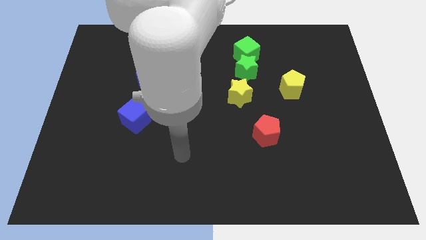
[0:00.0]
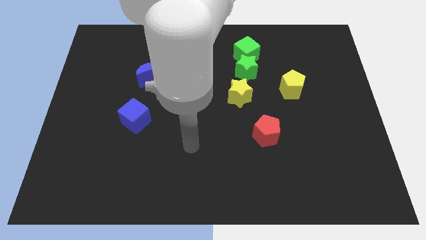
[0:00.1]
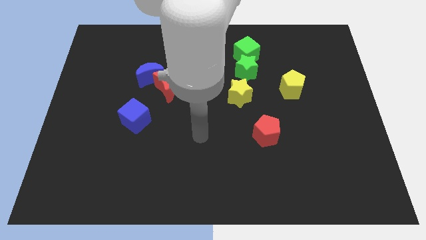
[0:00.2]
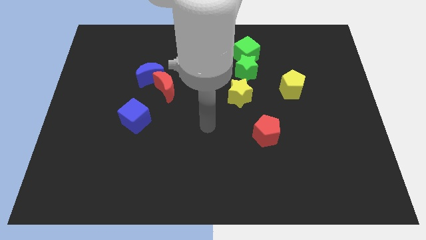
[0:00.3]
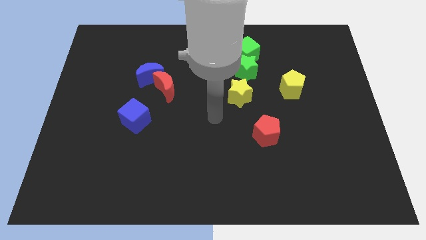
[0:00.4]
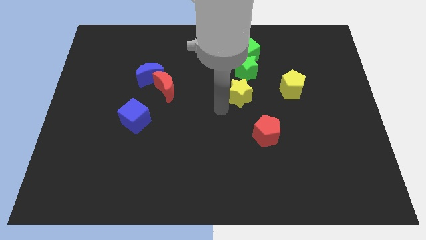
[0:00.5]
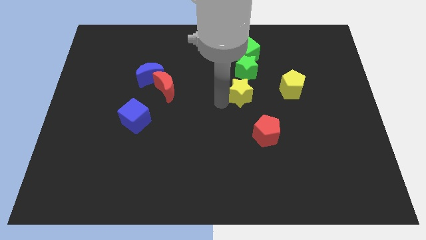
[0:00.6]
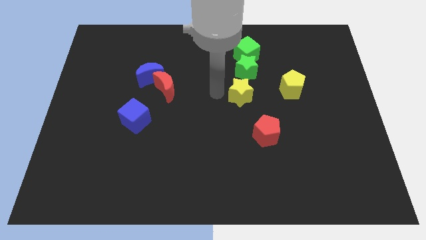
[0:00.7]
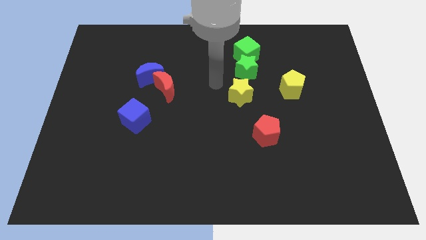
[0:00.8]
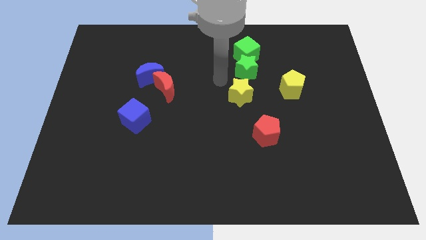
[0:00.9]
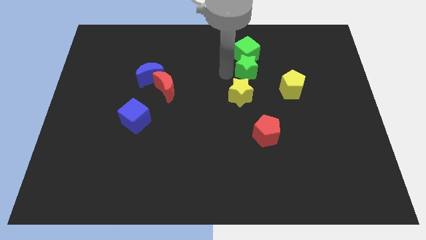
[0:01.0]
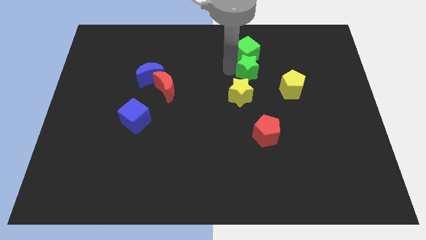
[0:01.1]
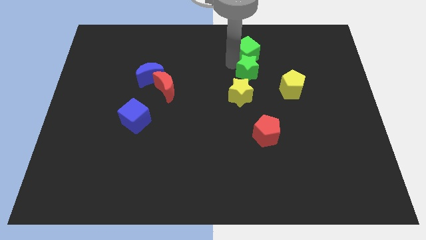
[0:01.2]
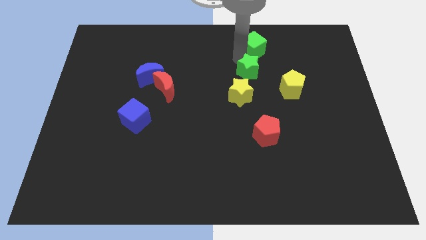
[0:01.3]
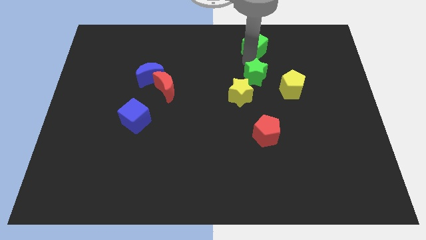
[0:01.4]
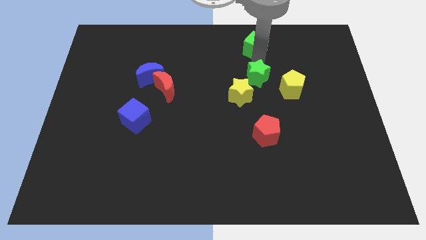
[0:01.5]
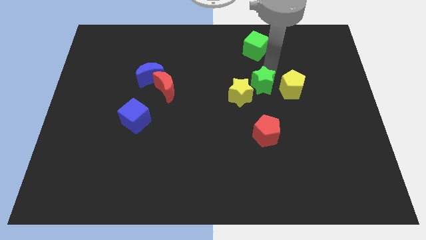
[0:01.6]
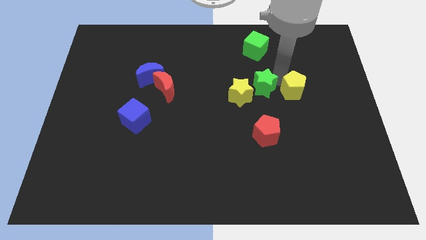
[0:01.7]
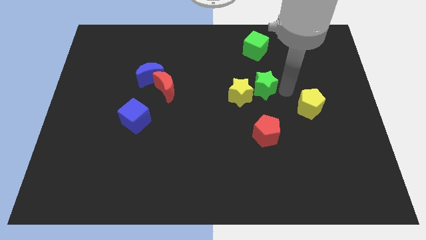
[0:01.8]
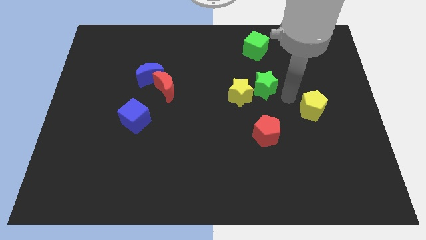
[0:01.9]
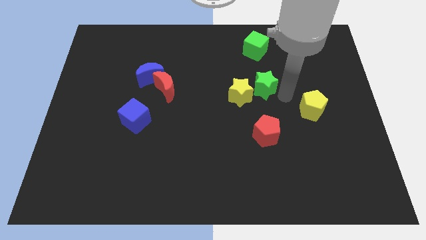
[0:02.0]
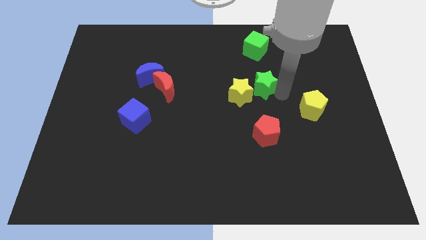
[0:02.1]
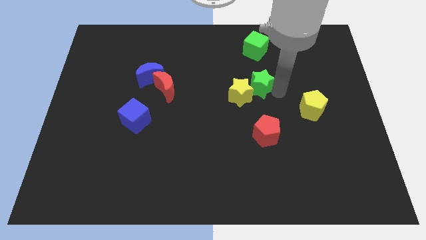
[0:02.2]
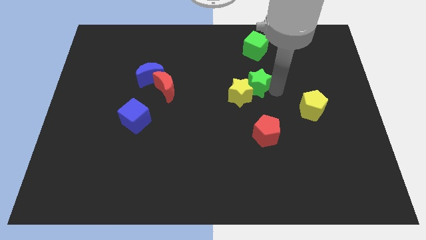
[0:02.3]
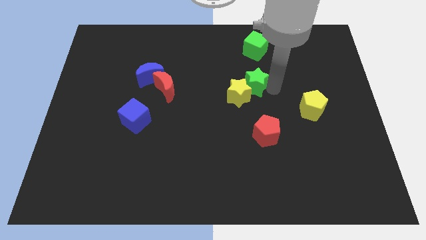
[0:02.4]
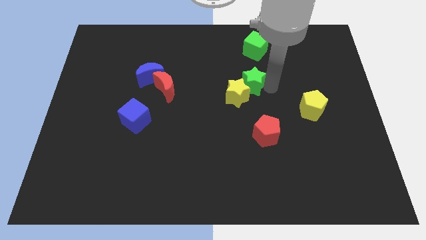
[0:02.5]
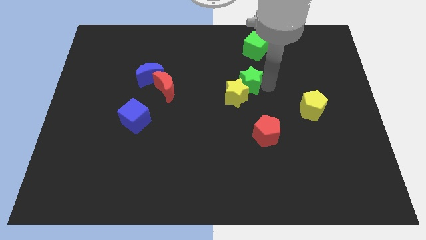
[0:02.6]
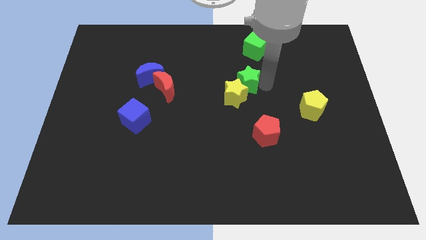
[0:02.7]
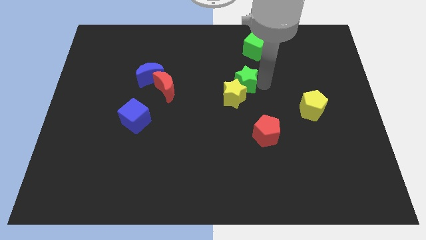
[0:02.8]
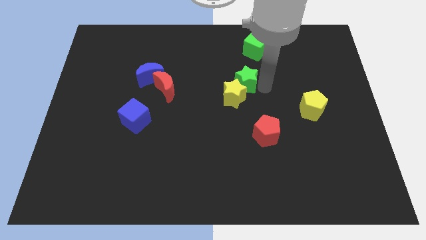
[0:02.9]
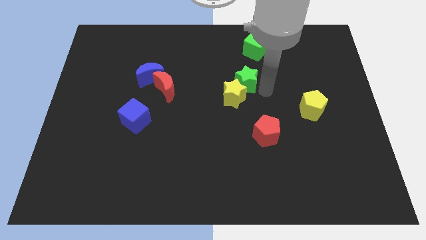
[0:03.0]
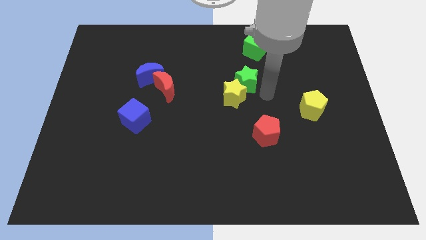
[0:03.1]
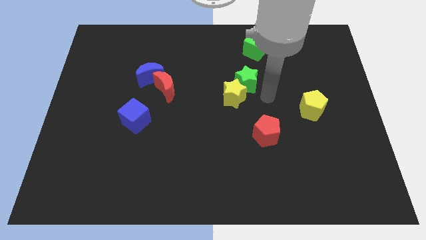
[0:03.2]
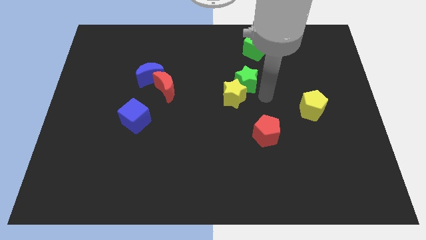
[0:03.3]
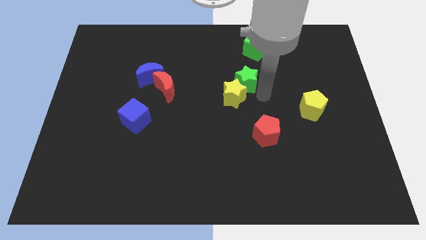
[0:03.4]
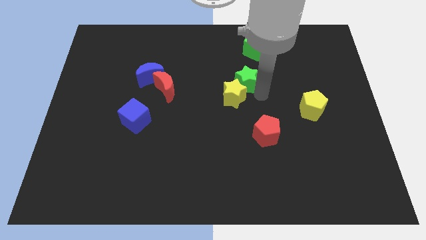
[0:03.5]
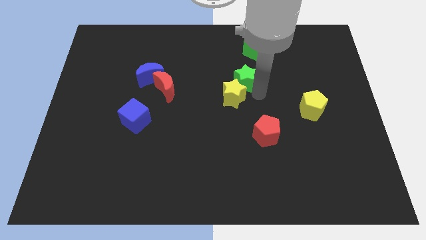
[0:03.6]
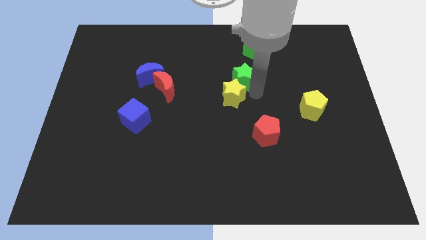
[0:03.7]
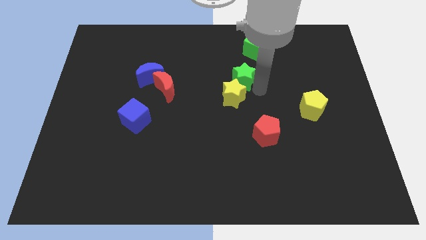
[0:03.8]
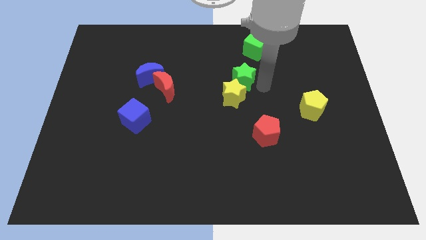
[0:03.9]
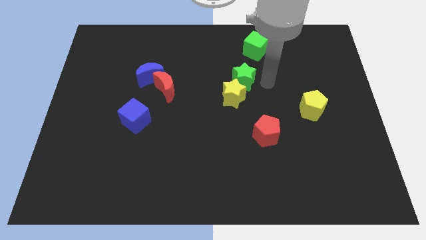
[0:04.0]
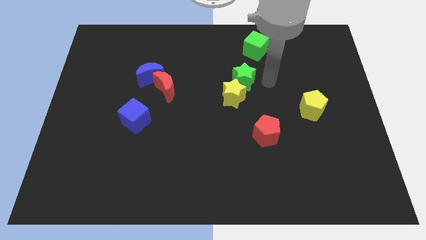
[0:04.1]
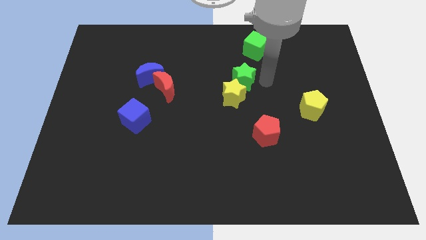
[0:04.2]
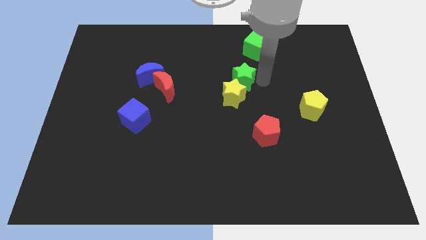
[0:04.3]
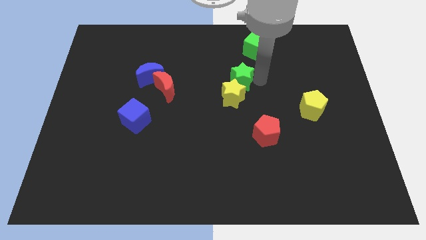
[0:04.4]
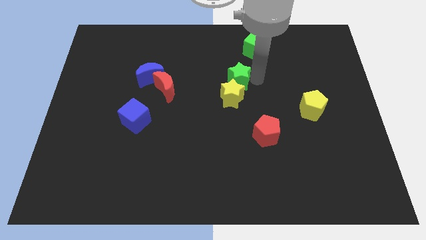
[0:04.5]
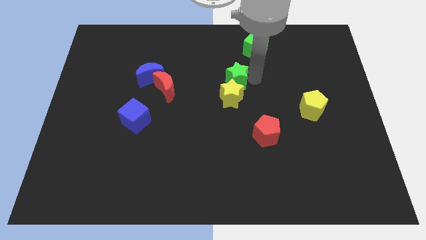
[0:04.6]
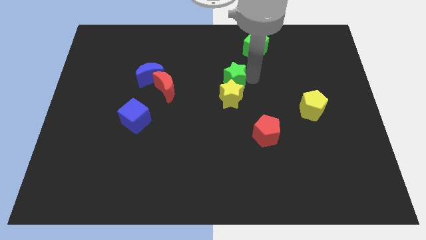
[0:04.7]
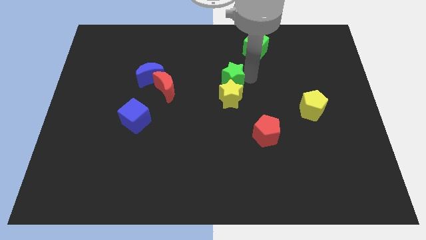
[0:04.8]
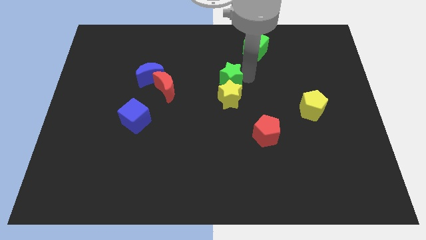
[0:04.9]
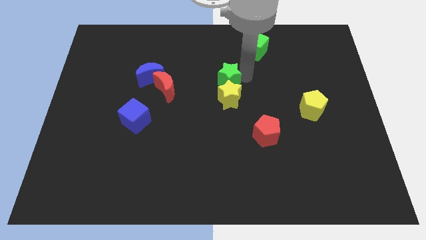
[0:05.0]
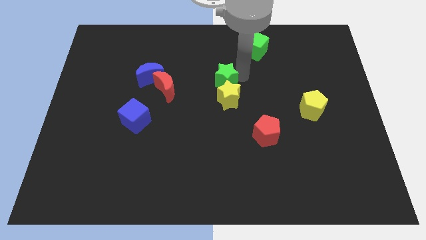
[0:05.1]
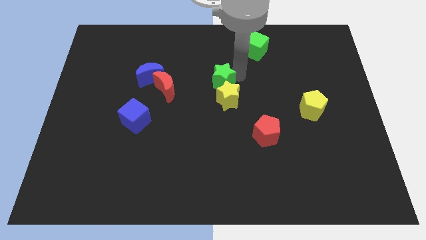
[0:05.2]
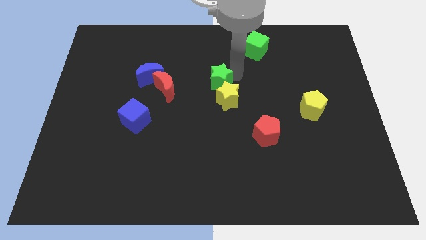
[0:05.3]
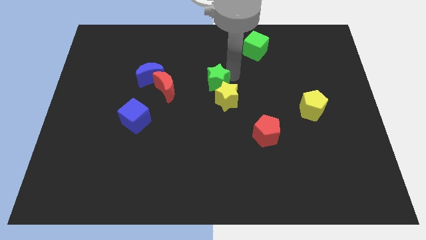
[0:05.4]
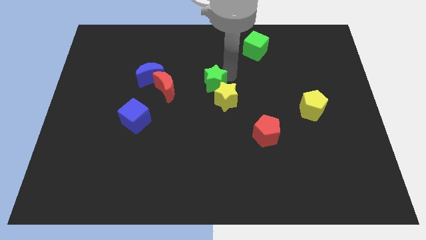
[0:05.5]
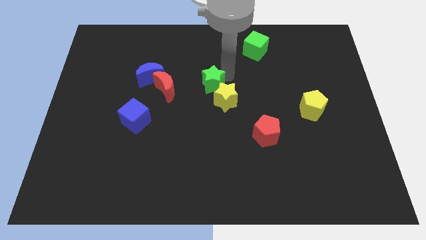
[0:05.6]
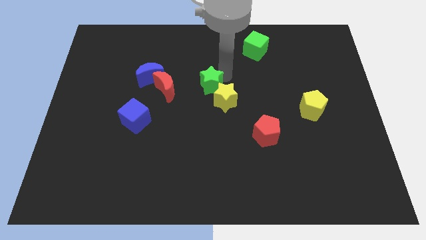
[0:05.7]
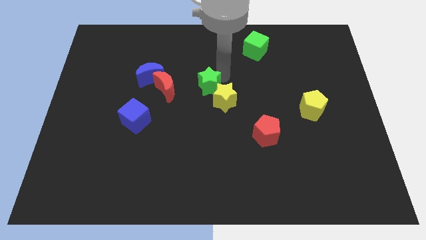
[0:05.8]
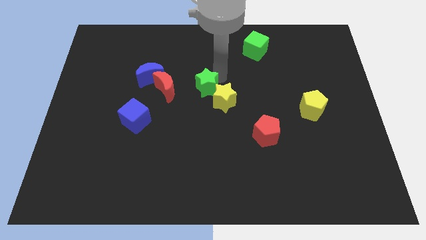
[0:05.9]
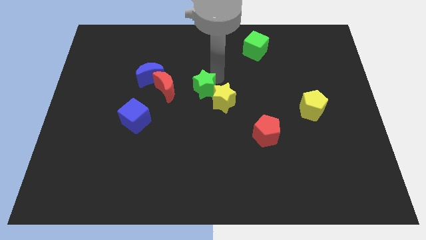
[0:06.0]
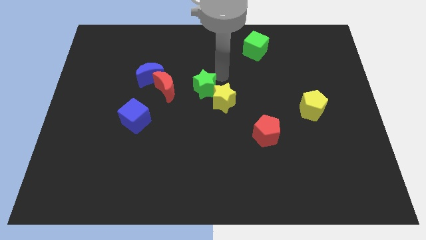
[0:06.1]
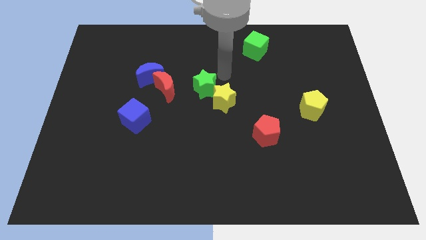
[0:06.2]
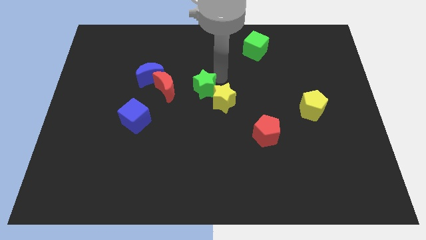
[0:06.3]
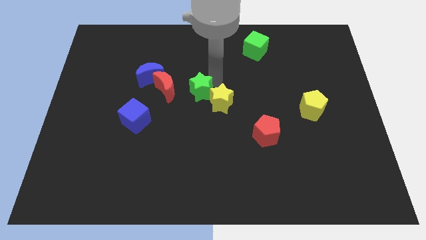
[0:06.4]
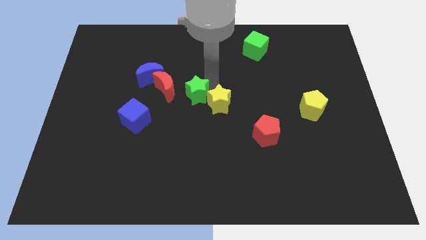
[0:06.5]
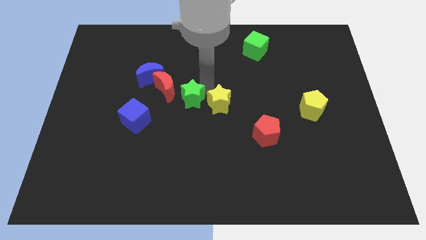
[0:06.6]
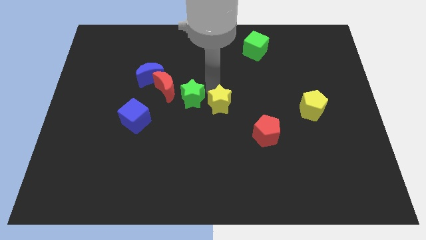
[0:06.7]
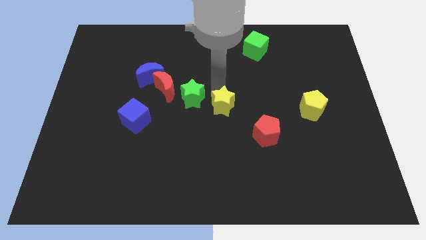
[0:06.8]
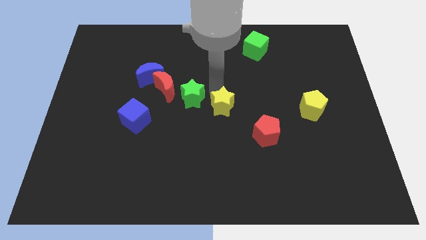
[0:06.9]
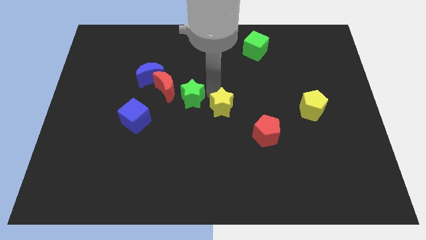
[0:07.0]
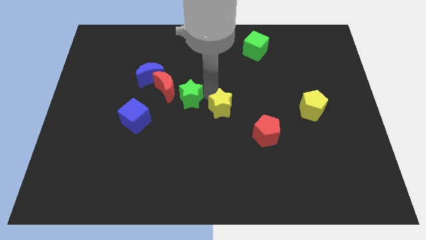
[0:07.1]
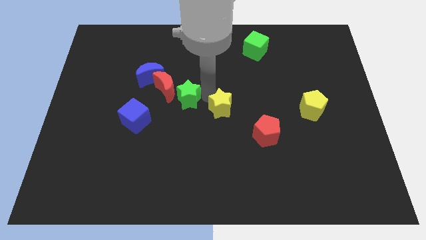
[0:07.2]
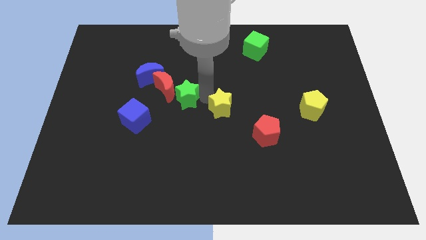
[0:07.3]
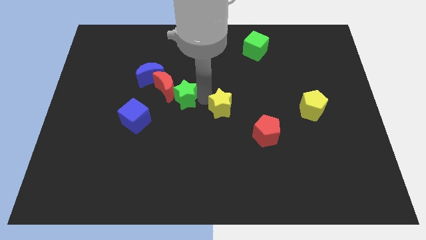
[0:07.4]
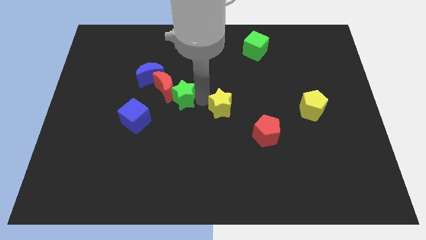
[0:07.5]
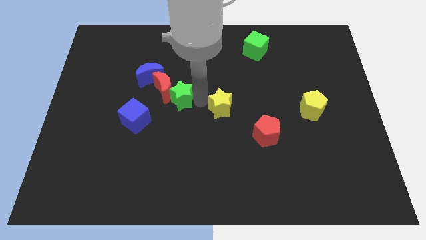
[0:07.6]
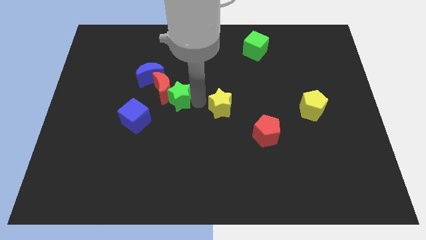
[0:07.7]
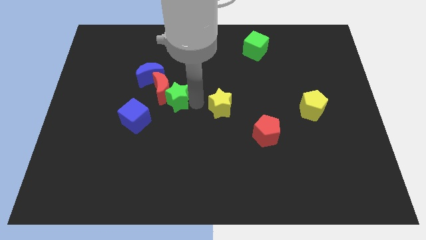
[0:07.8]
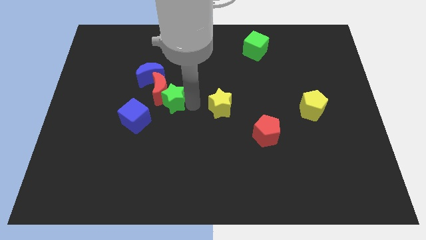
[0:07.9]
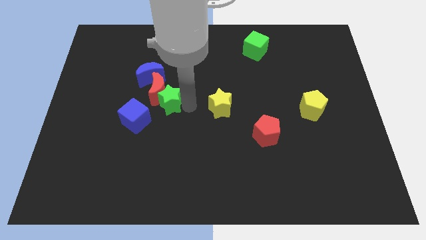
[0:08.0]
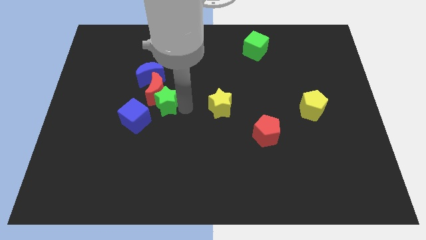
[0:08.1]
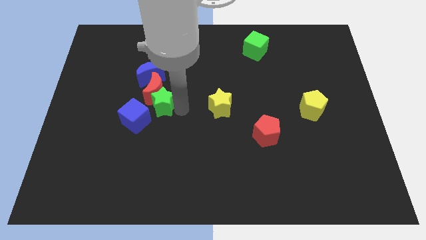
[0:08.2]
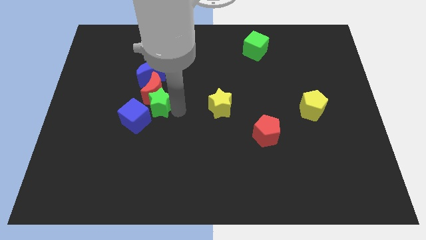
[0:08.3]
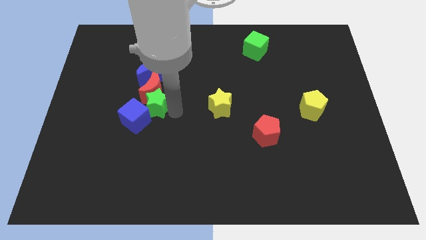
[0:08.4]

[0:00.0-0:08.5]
slide the green star towards the blue cube
